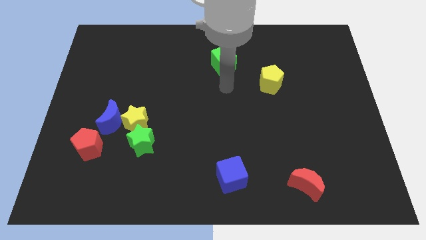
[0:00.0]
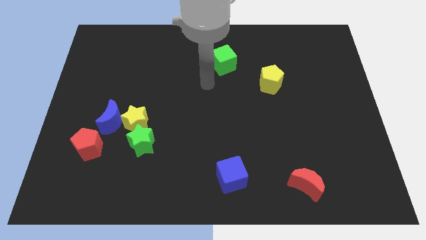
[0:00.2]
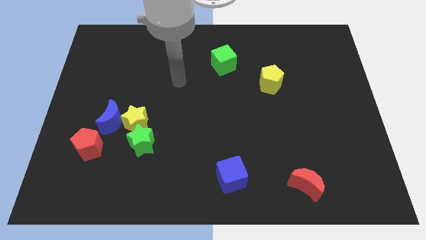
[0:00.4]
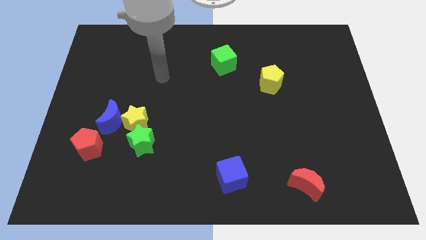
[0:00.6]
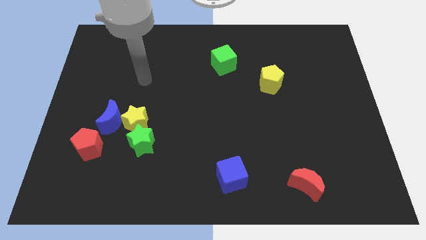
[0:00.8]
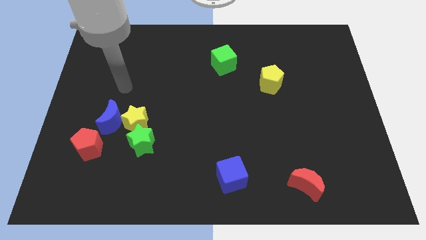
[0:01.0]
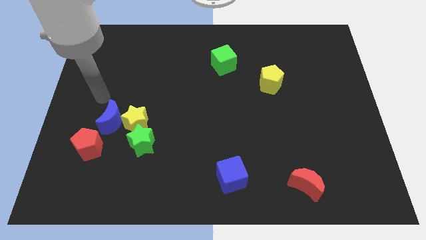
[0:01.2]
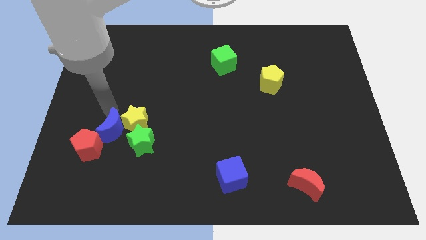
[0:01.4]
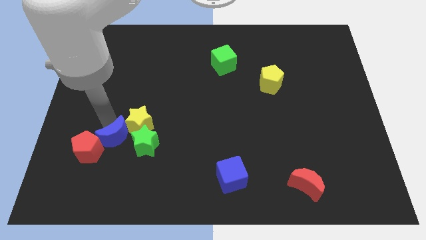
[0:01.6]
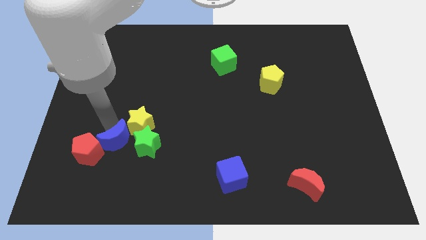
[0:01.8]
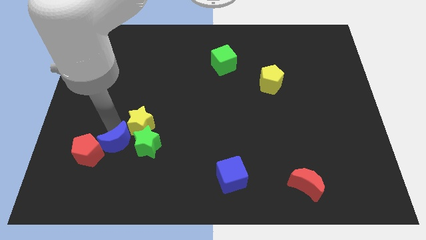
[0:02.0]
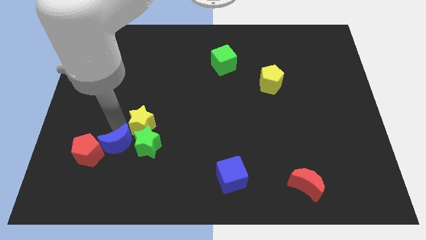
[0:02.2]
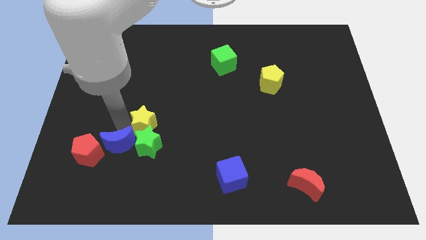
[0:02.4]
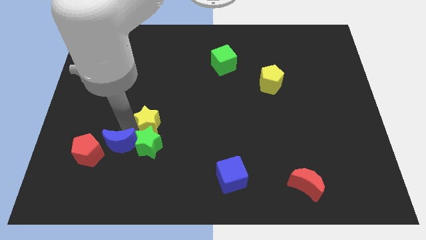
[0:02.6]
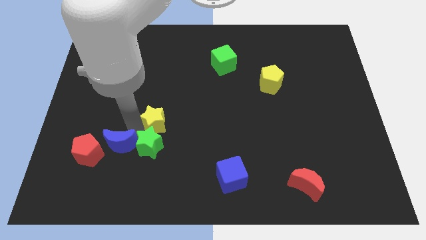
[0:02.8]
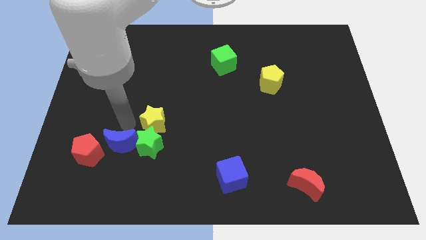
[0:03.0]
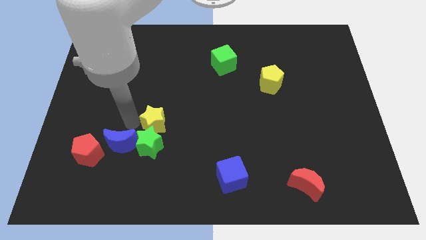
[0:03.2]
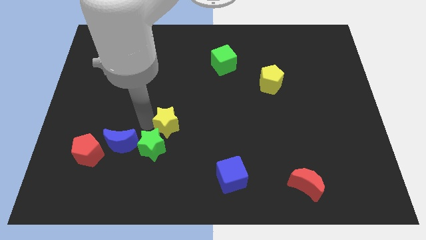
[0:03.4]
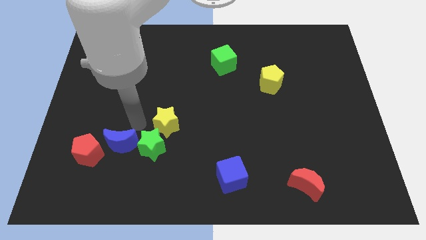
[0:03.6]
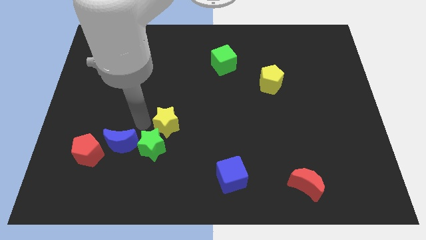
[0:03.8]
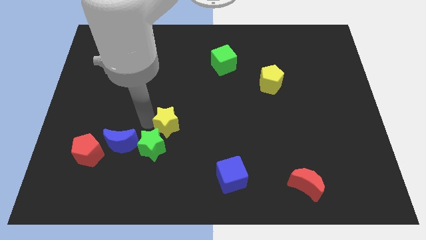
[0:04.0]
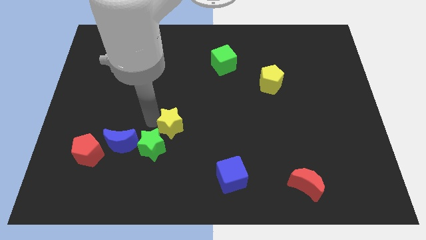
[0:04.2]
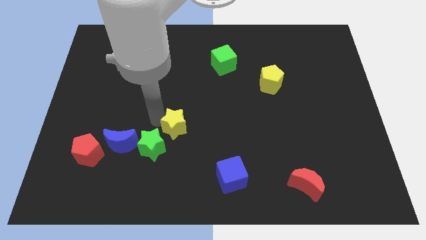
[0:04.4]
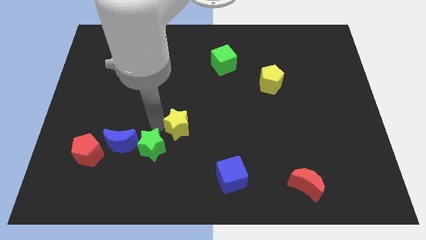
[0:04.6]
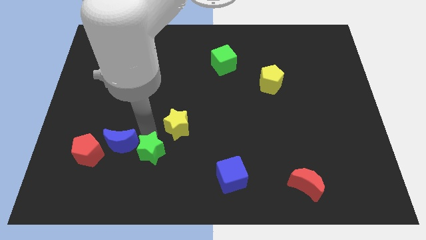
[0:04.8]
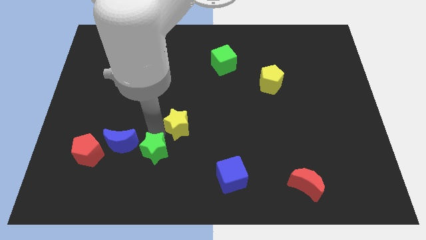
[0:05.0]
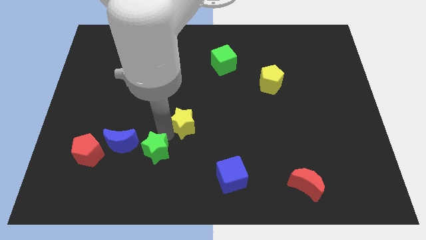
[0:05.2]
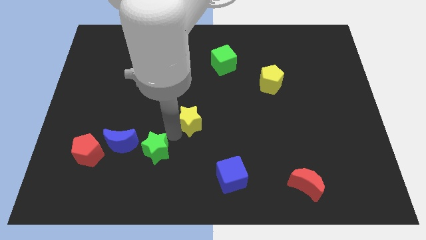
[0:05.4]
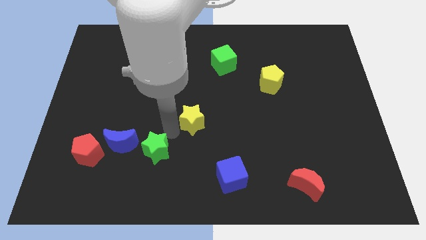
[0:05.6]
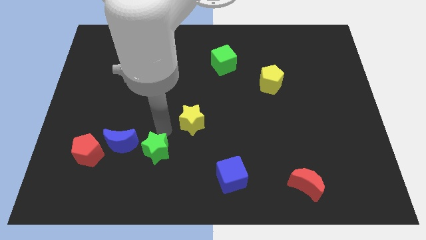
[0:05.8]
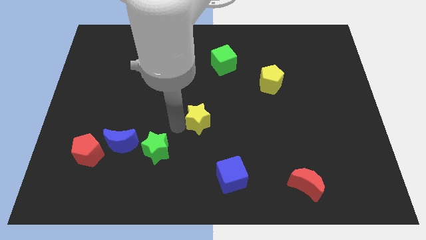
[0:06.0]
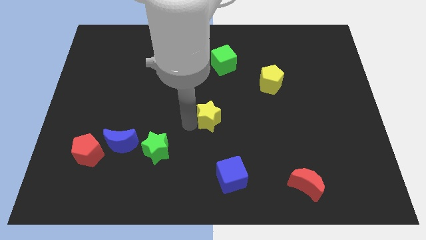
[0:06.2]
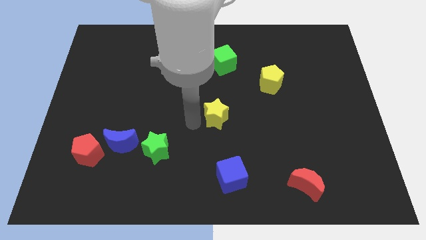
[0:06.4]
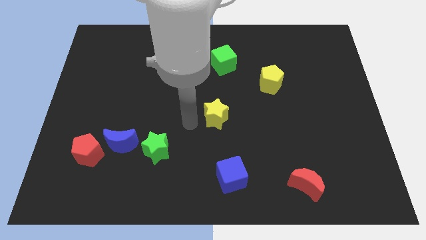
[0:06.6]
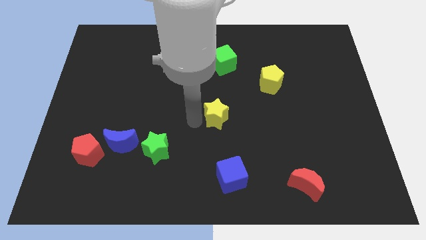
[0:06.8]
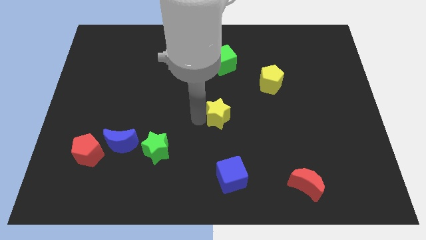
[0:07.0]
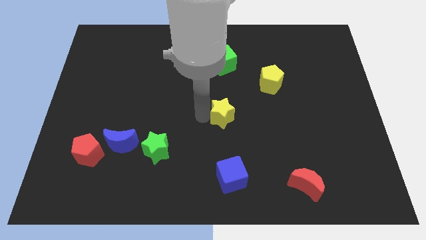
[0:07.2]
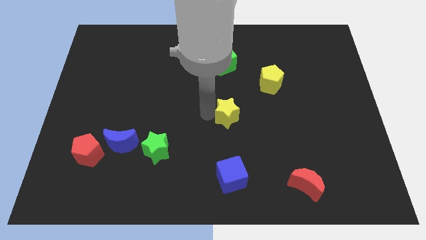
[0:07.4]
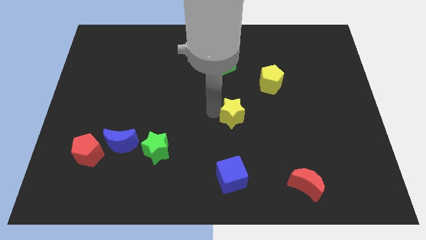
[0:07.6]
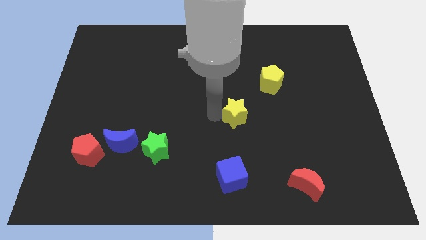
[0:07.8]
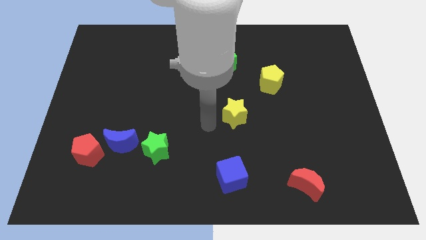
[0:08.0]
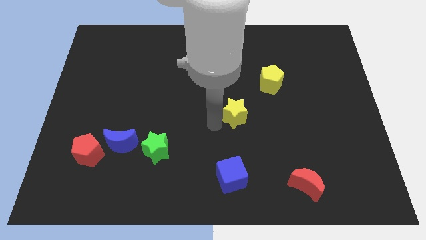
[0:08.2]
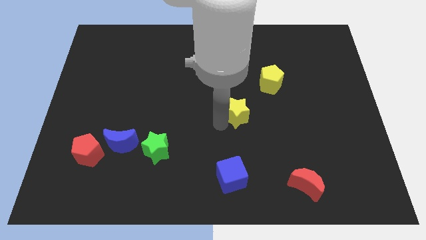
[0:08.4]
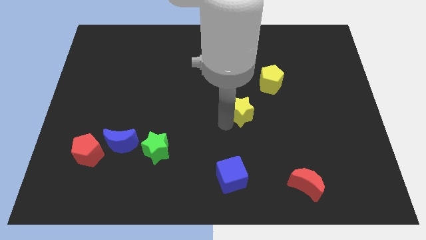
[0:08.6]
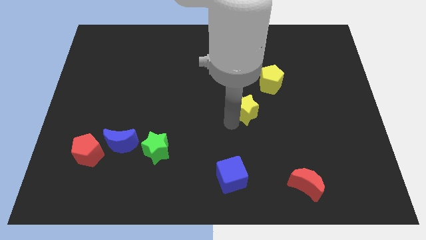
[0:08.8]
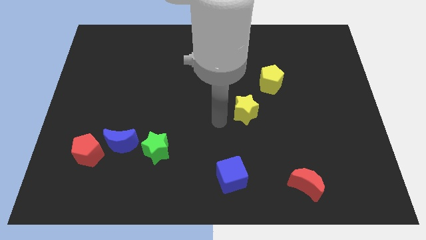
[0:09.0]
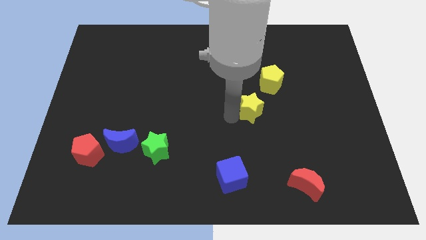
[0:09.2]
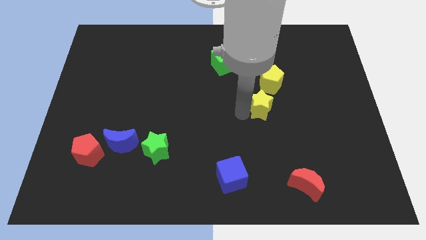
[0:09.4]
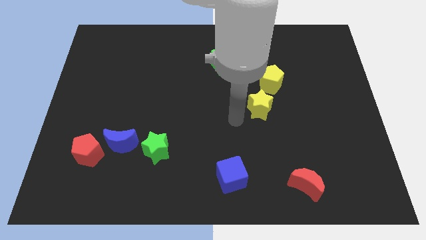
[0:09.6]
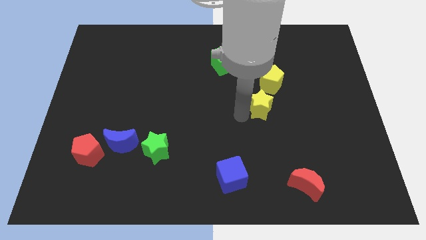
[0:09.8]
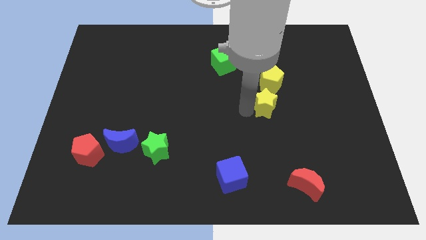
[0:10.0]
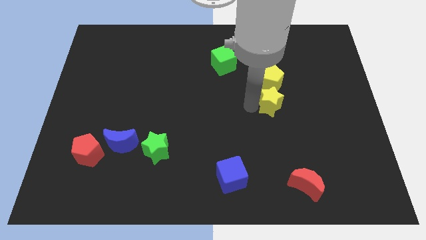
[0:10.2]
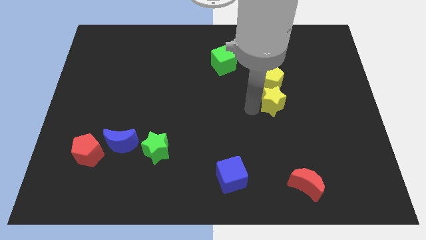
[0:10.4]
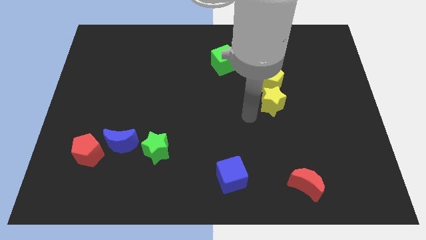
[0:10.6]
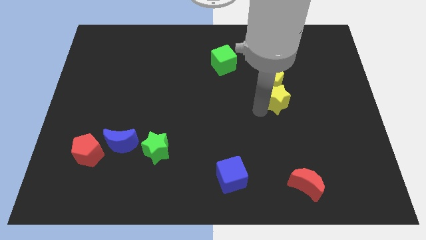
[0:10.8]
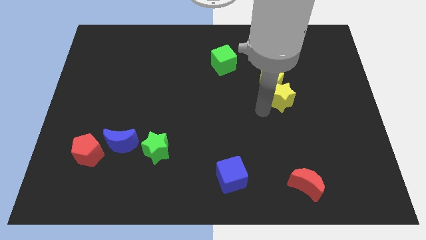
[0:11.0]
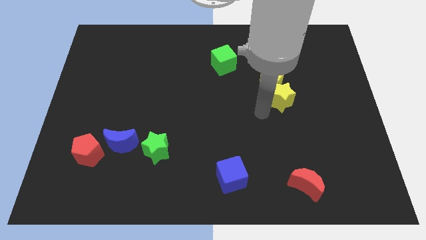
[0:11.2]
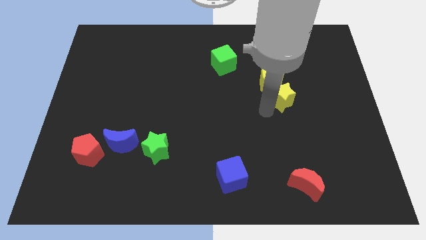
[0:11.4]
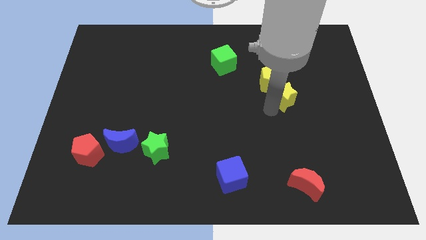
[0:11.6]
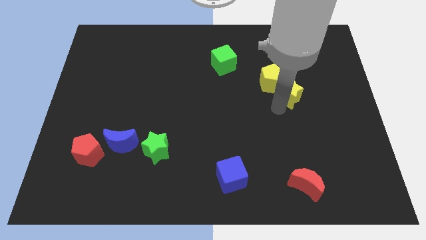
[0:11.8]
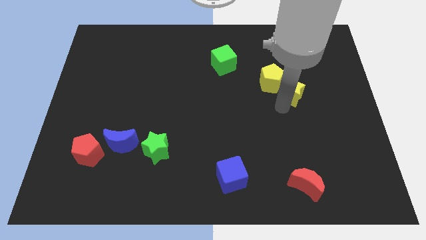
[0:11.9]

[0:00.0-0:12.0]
put the yellow star just right of the yellow pentagon

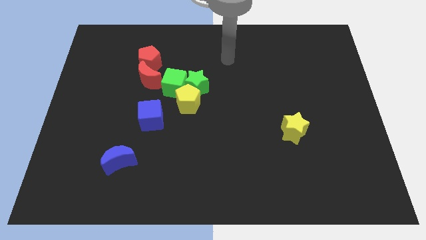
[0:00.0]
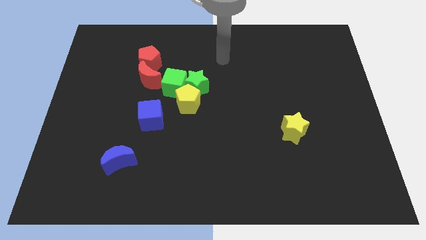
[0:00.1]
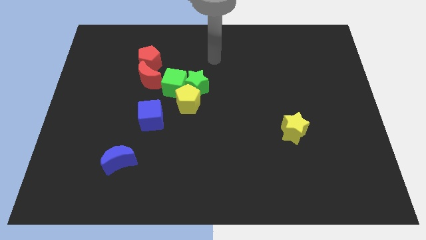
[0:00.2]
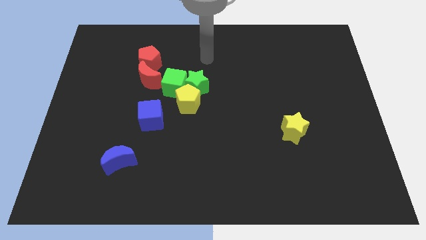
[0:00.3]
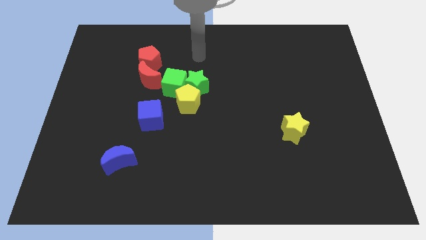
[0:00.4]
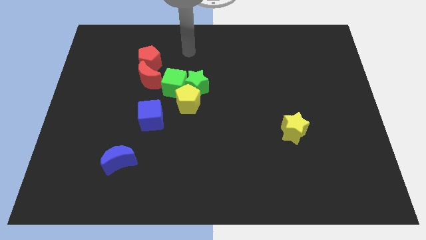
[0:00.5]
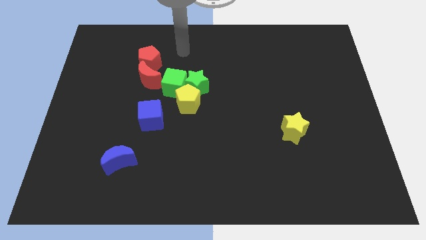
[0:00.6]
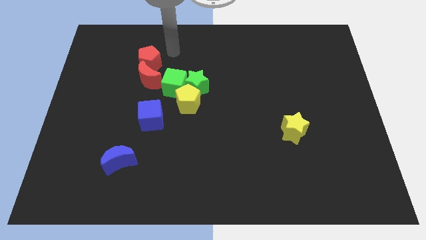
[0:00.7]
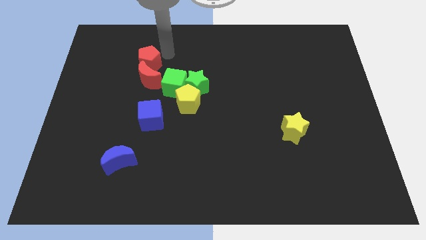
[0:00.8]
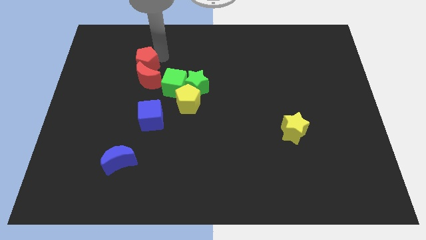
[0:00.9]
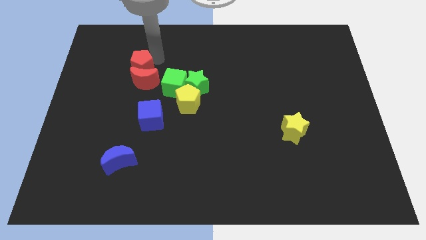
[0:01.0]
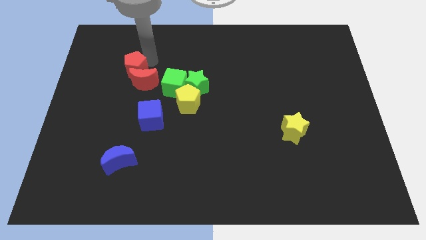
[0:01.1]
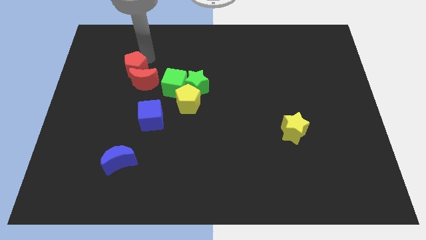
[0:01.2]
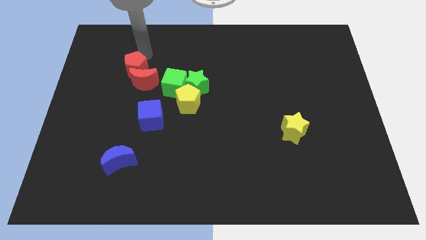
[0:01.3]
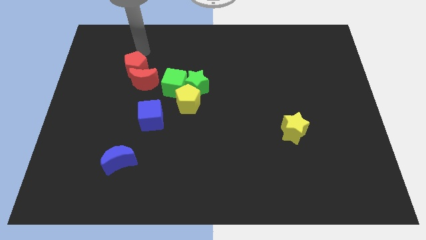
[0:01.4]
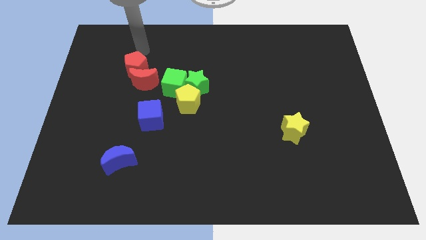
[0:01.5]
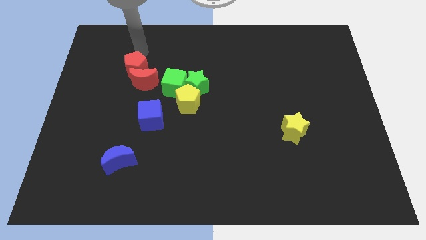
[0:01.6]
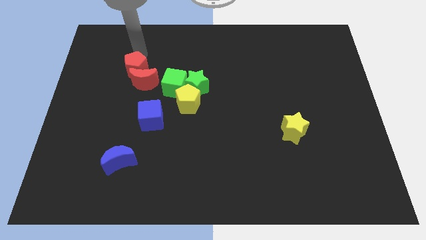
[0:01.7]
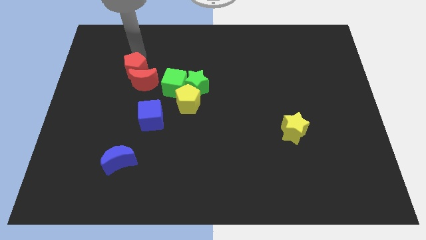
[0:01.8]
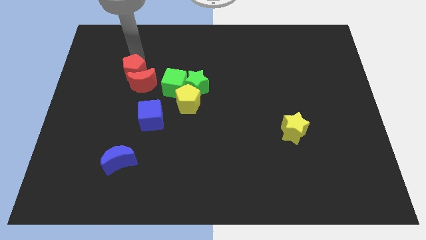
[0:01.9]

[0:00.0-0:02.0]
move the red pentagon just left of the green cube
